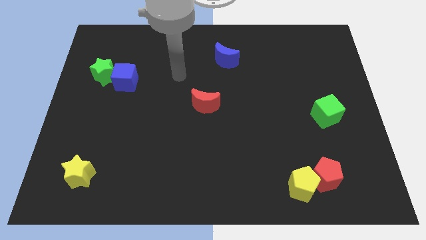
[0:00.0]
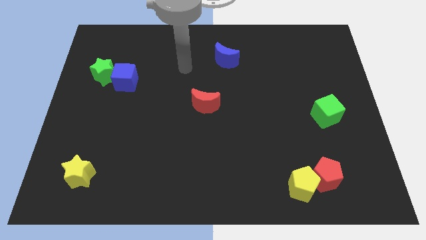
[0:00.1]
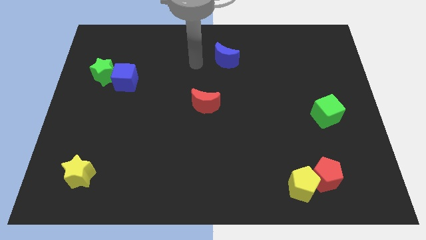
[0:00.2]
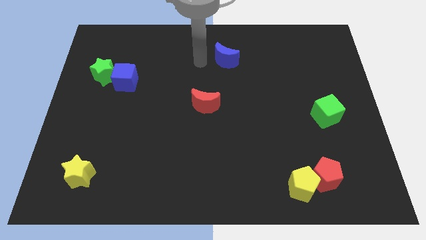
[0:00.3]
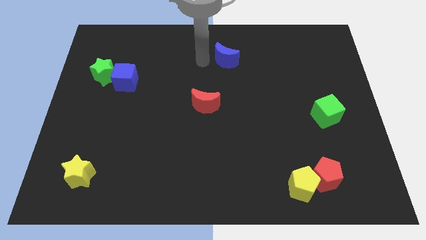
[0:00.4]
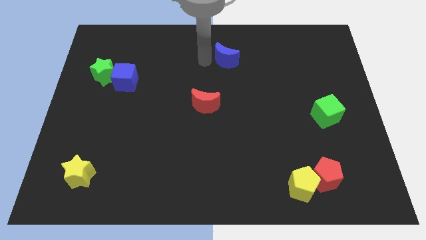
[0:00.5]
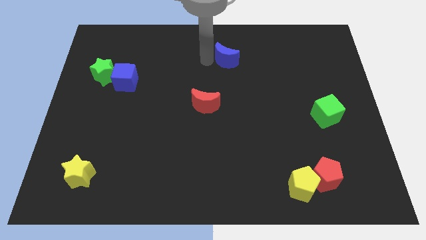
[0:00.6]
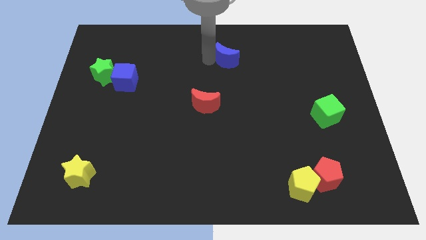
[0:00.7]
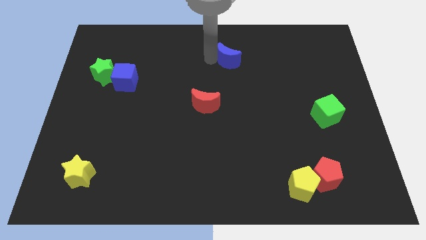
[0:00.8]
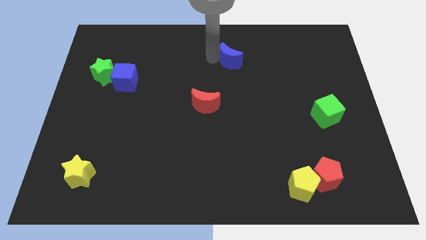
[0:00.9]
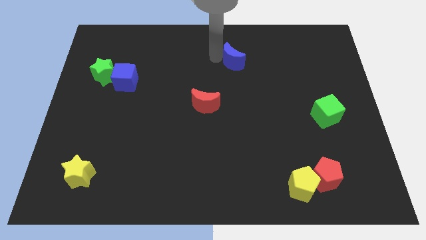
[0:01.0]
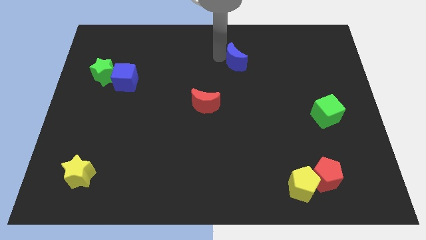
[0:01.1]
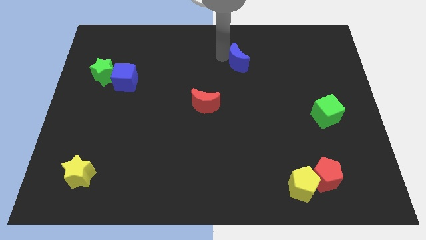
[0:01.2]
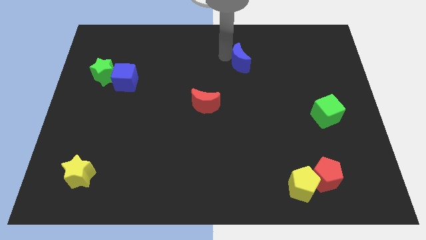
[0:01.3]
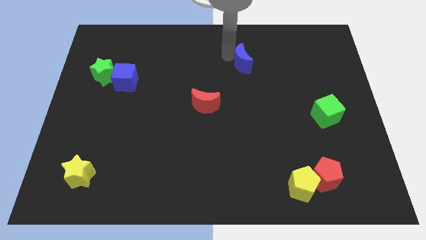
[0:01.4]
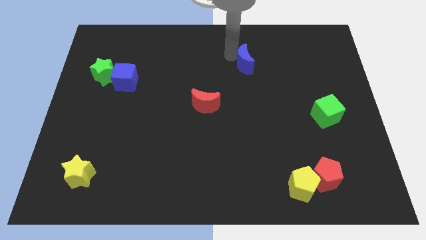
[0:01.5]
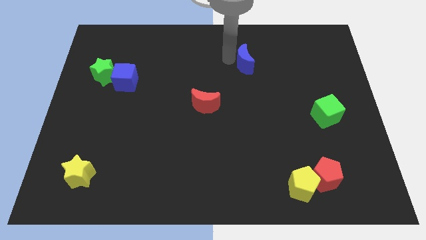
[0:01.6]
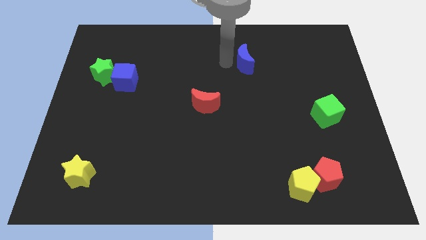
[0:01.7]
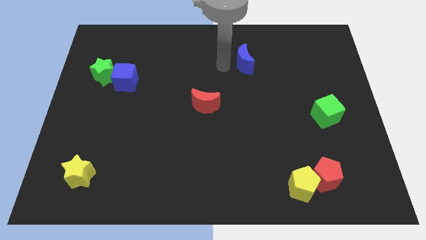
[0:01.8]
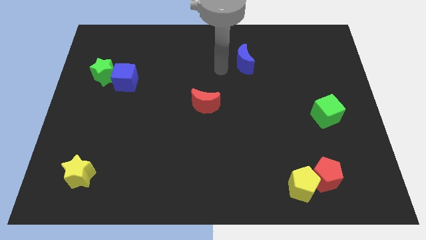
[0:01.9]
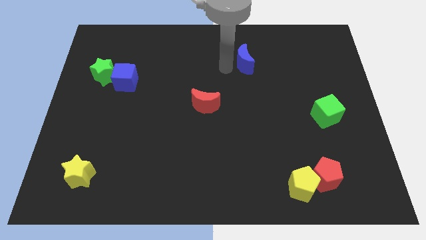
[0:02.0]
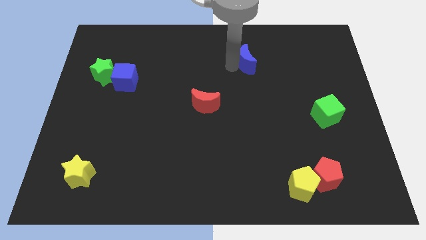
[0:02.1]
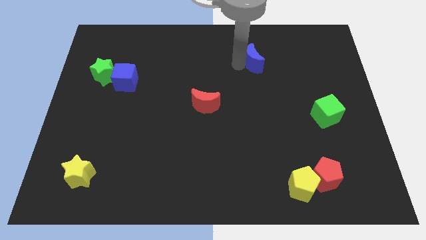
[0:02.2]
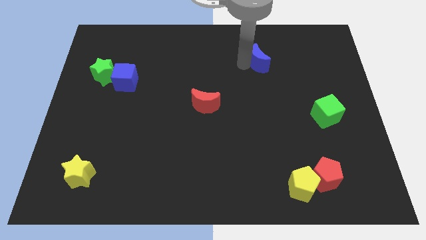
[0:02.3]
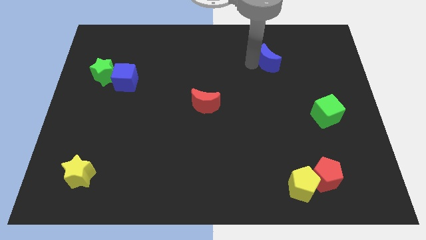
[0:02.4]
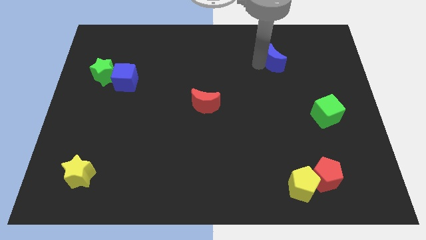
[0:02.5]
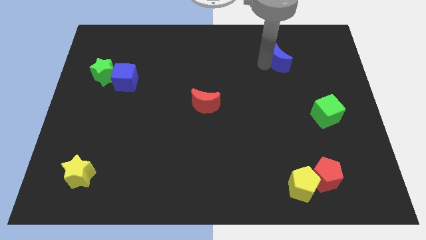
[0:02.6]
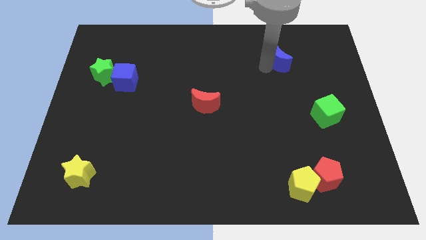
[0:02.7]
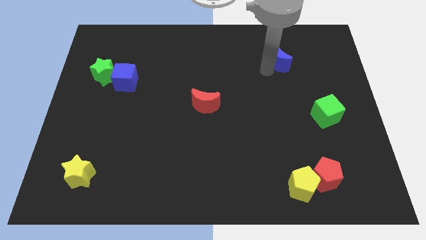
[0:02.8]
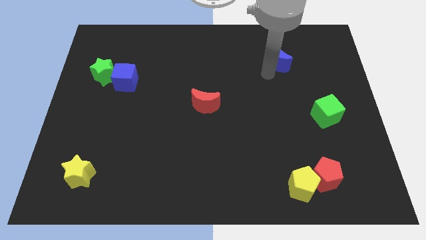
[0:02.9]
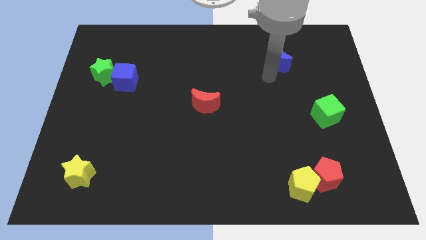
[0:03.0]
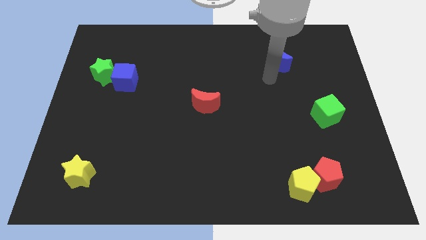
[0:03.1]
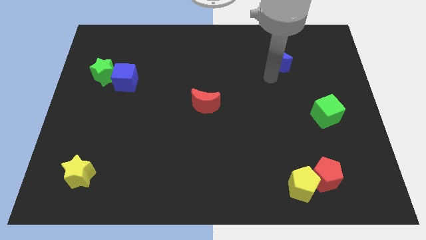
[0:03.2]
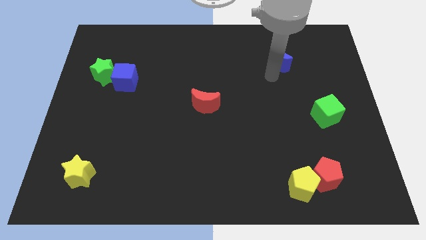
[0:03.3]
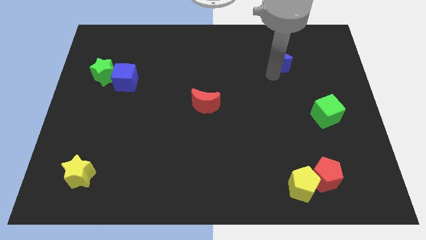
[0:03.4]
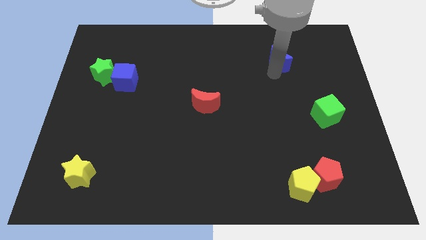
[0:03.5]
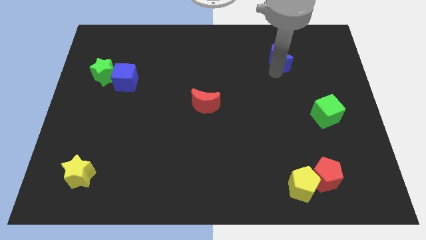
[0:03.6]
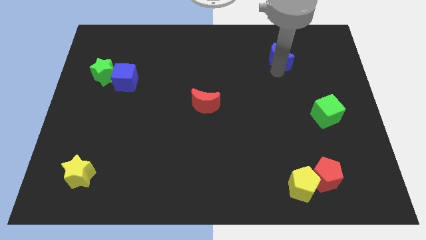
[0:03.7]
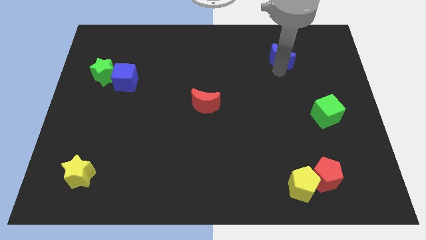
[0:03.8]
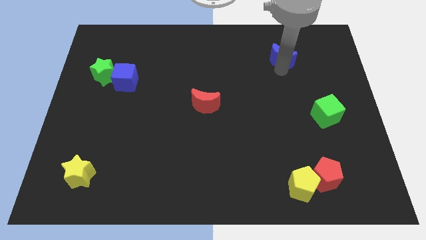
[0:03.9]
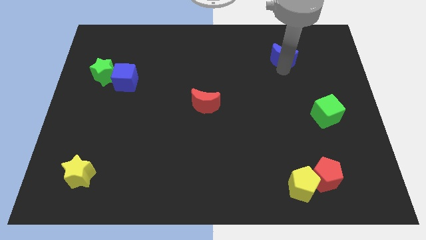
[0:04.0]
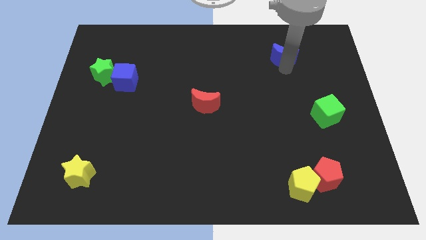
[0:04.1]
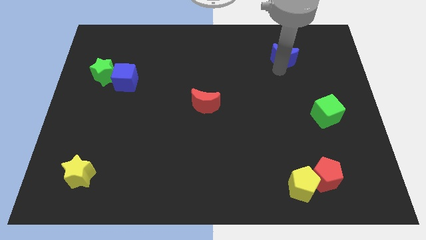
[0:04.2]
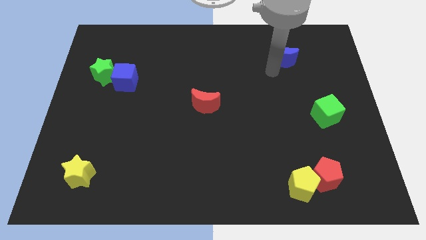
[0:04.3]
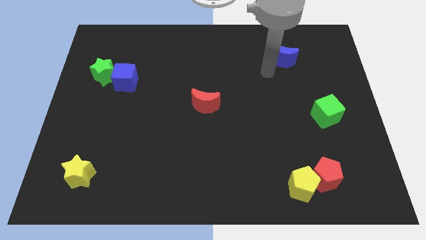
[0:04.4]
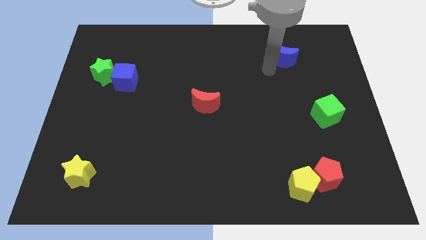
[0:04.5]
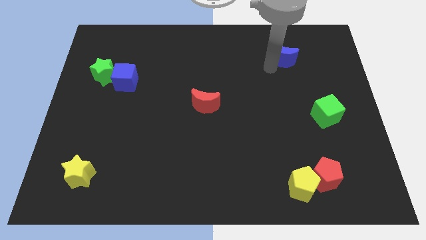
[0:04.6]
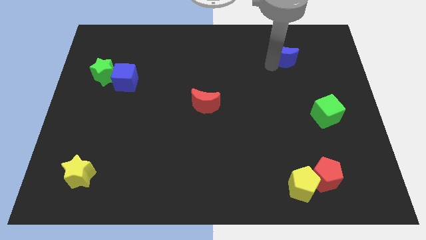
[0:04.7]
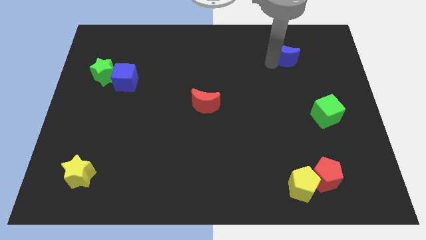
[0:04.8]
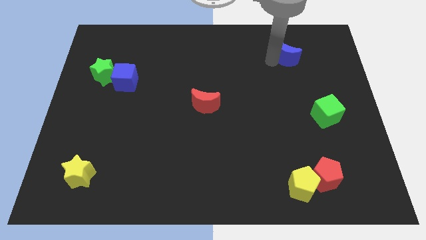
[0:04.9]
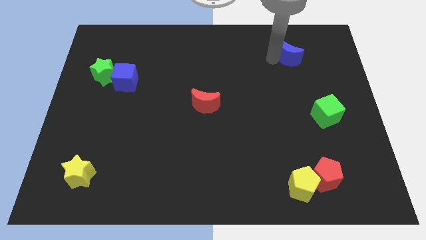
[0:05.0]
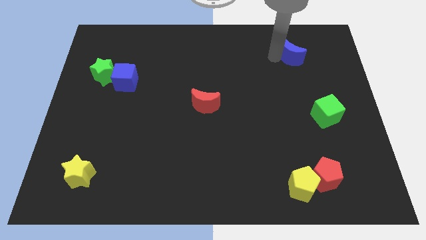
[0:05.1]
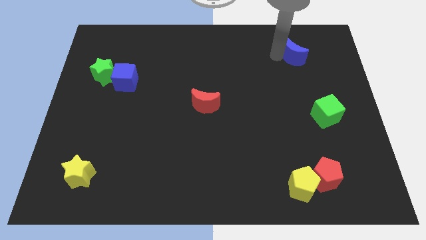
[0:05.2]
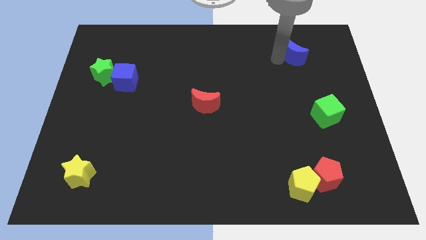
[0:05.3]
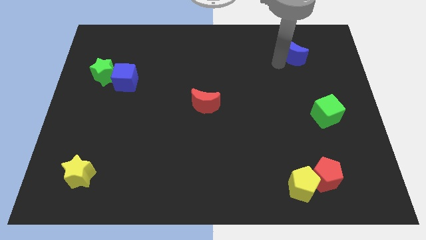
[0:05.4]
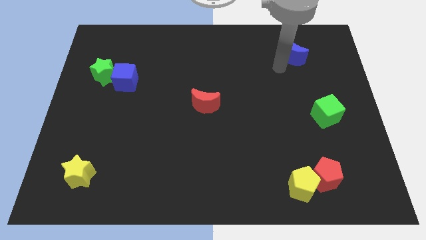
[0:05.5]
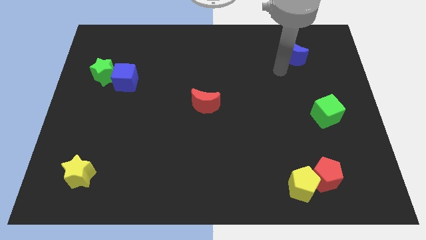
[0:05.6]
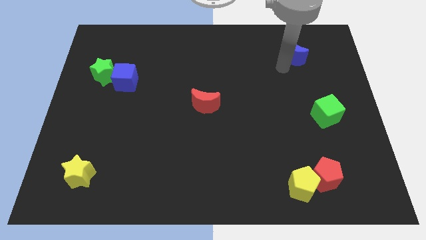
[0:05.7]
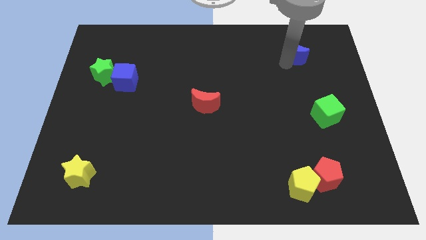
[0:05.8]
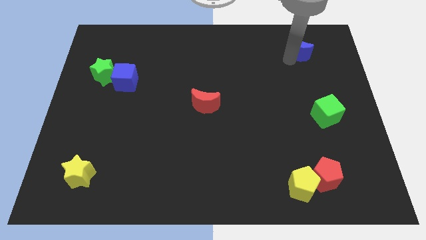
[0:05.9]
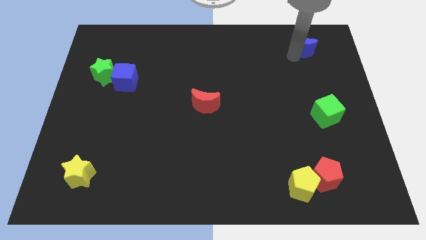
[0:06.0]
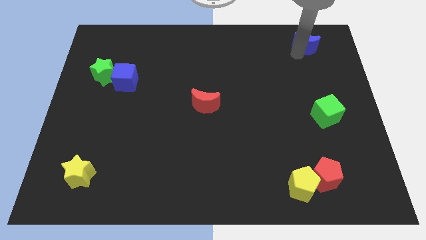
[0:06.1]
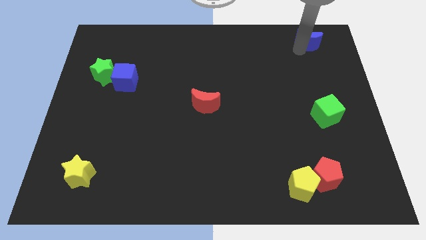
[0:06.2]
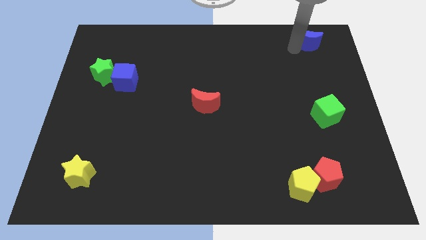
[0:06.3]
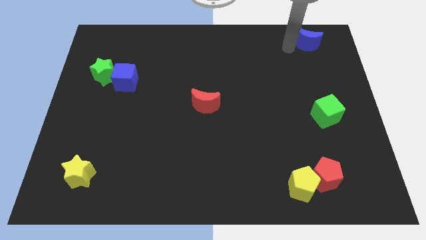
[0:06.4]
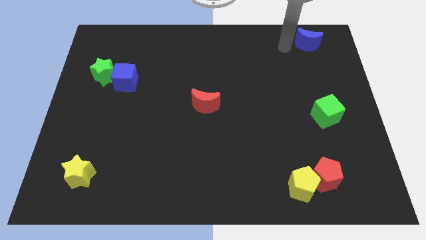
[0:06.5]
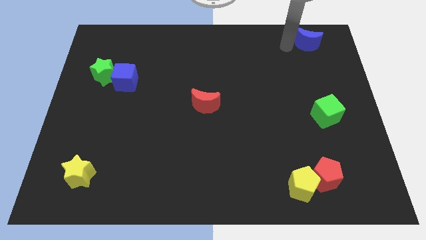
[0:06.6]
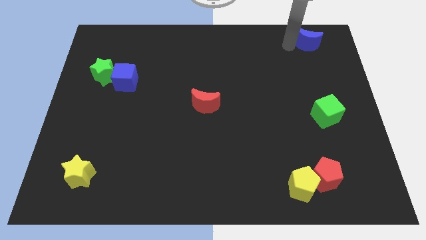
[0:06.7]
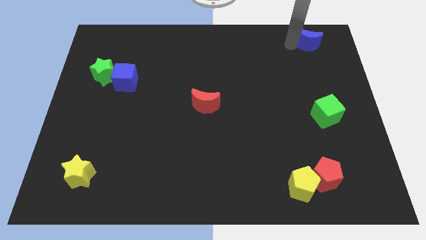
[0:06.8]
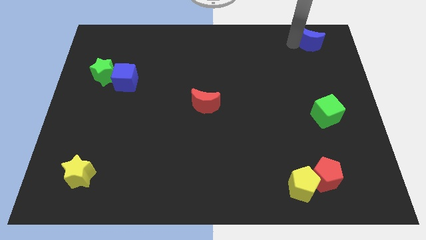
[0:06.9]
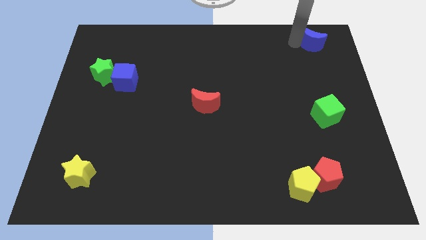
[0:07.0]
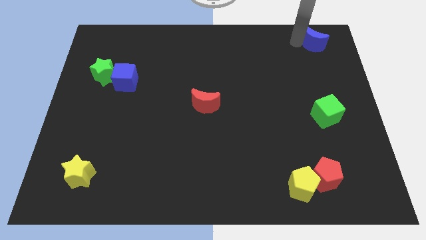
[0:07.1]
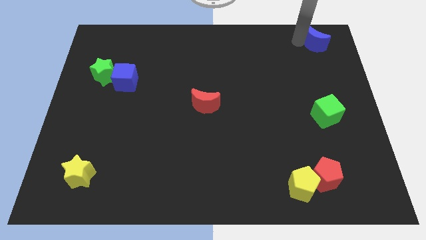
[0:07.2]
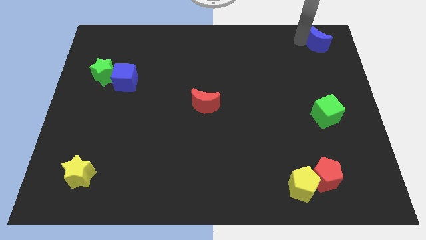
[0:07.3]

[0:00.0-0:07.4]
put the blue moon to the upper right corner
